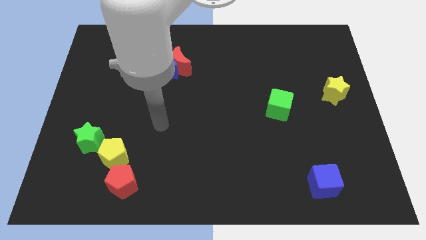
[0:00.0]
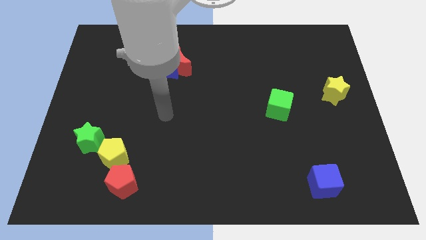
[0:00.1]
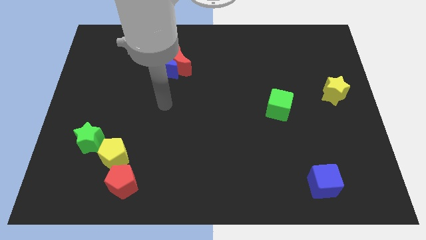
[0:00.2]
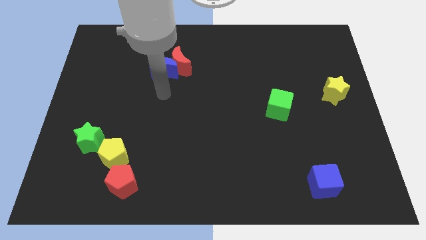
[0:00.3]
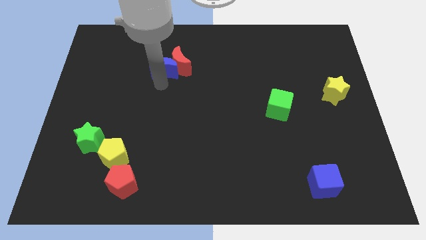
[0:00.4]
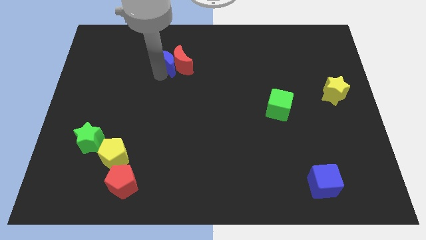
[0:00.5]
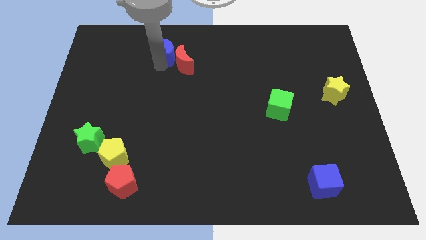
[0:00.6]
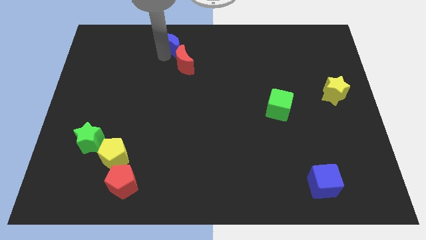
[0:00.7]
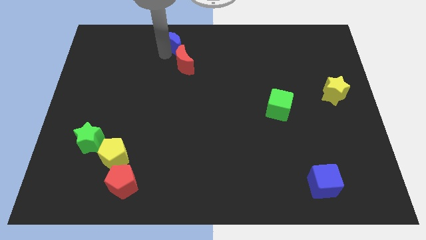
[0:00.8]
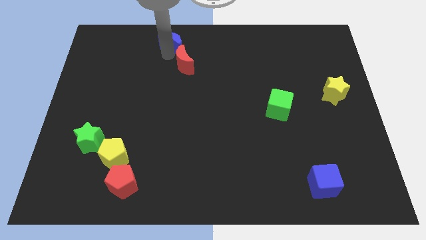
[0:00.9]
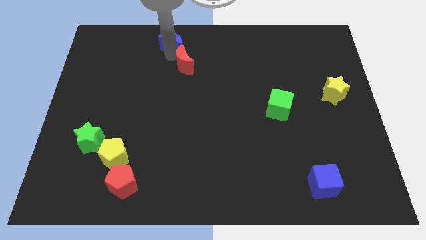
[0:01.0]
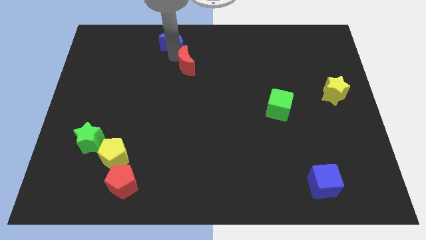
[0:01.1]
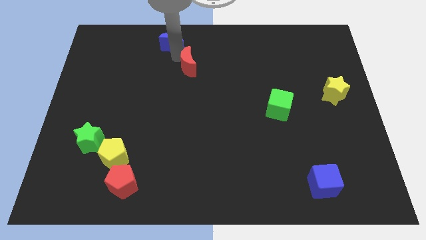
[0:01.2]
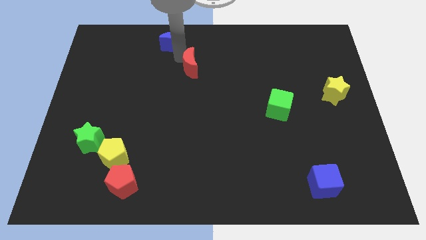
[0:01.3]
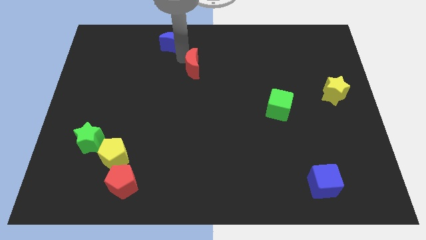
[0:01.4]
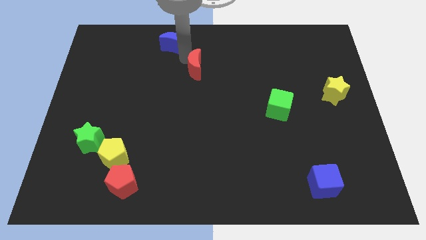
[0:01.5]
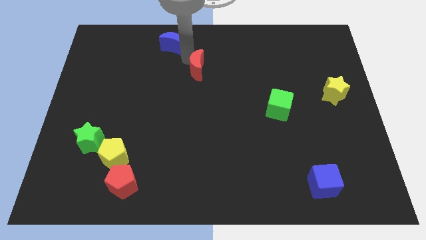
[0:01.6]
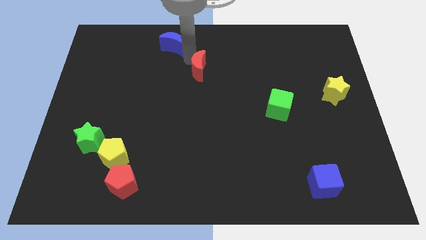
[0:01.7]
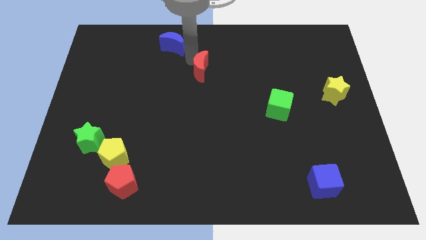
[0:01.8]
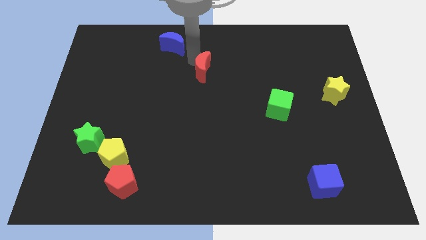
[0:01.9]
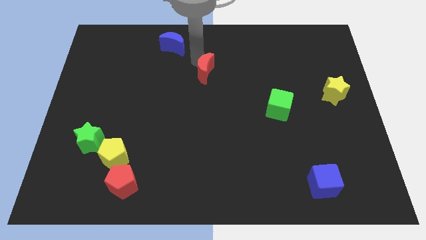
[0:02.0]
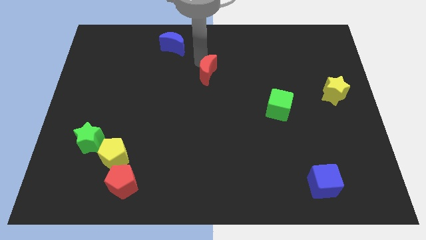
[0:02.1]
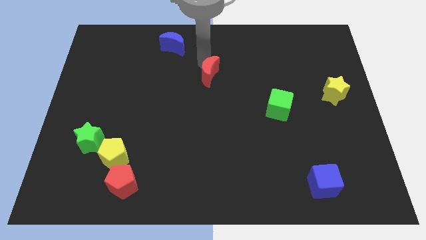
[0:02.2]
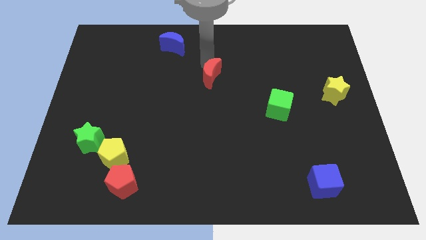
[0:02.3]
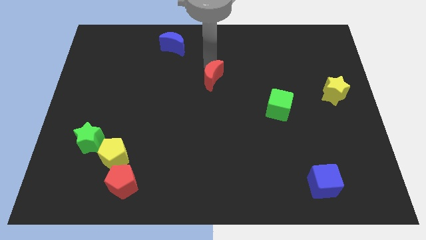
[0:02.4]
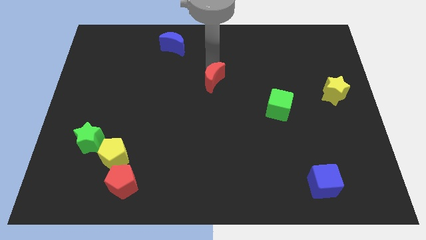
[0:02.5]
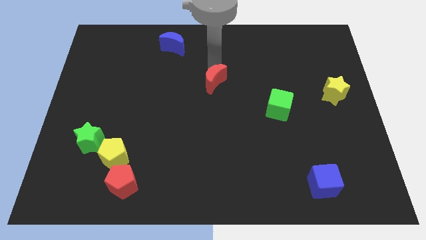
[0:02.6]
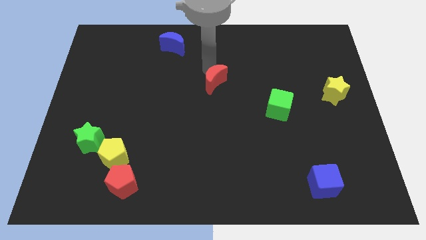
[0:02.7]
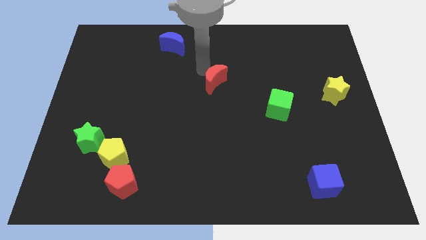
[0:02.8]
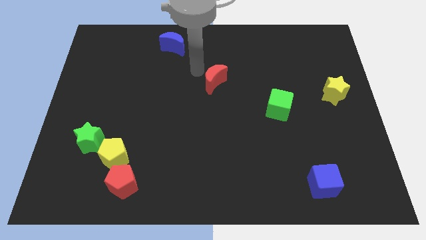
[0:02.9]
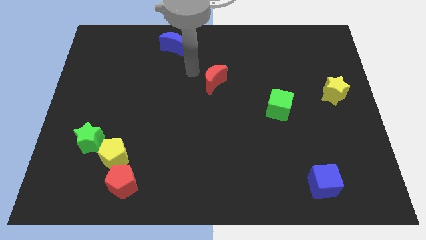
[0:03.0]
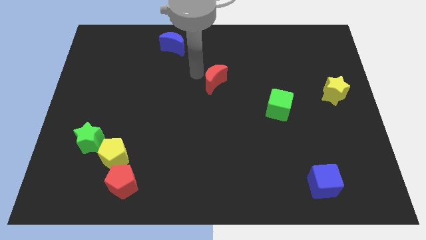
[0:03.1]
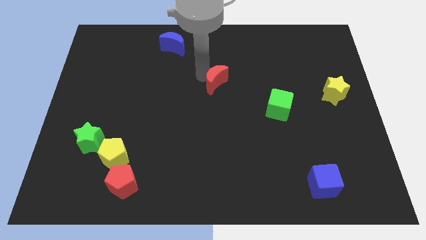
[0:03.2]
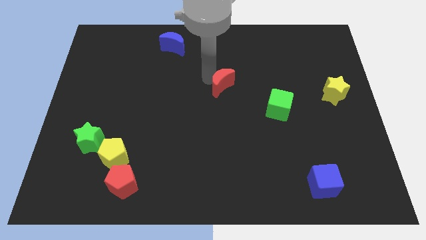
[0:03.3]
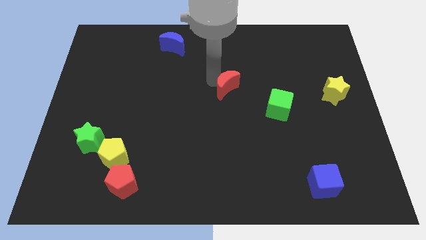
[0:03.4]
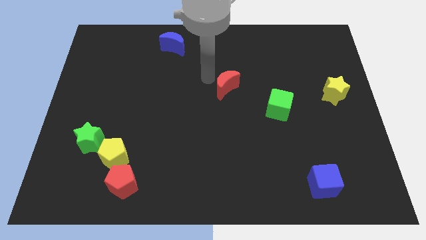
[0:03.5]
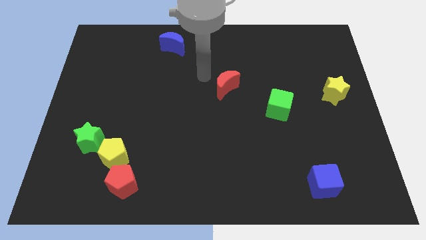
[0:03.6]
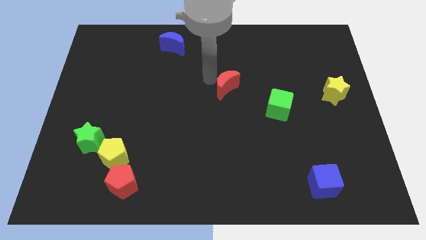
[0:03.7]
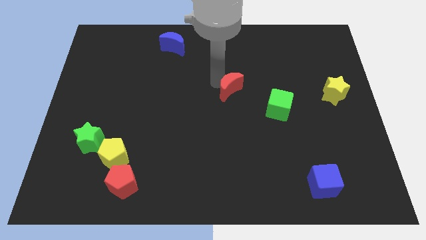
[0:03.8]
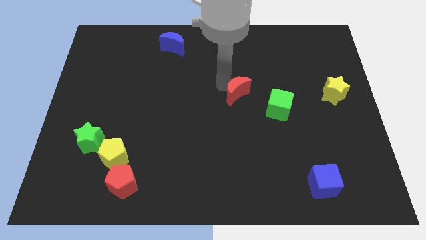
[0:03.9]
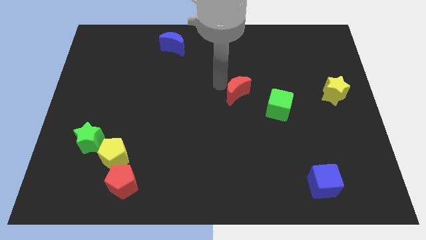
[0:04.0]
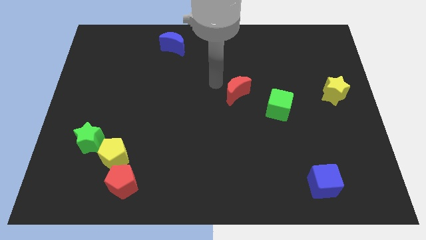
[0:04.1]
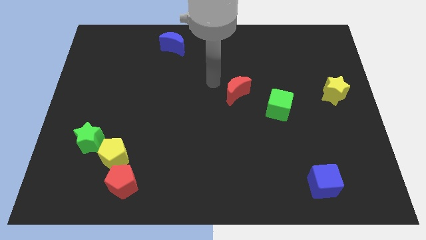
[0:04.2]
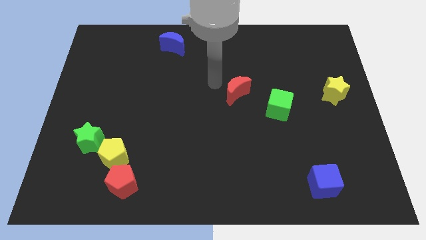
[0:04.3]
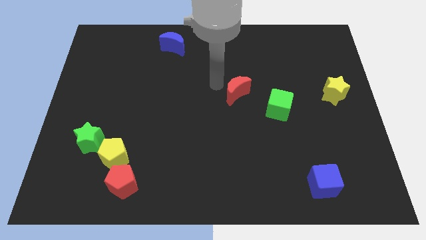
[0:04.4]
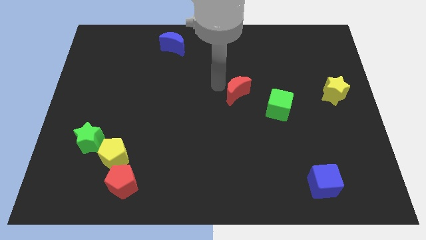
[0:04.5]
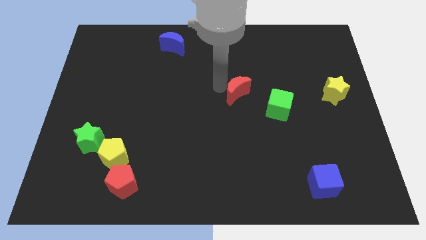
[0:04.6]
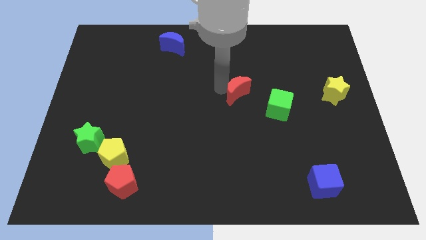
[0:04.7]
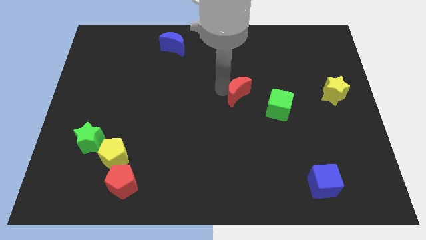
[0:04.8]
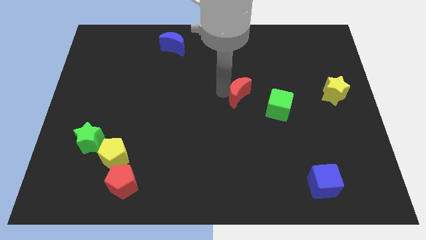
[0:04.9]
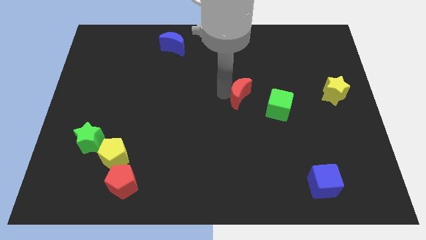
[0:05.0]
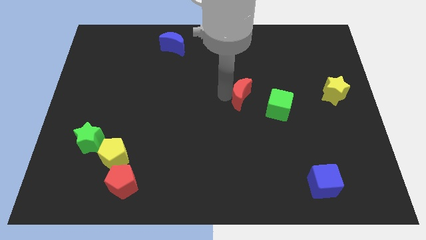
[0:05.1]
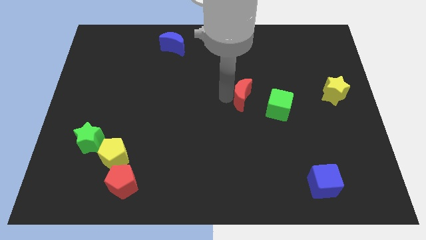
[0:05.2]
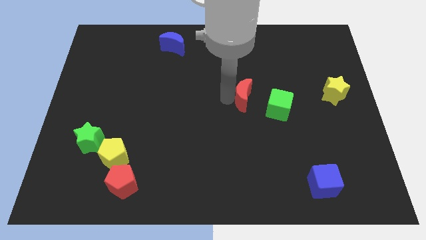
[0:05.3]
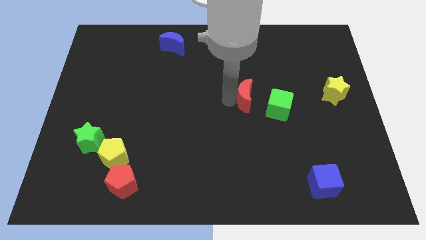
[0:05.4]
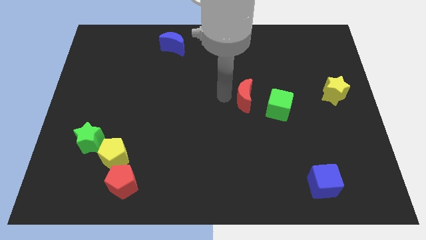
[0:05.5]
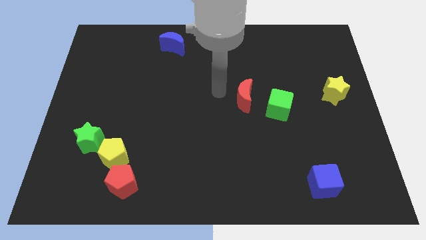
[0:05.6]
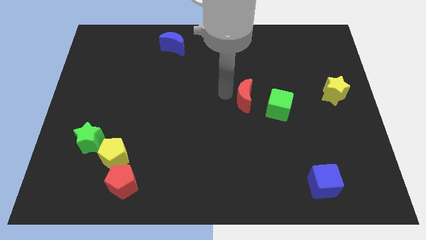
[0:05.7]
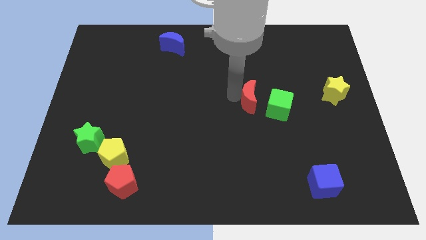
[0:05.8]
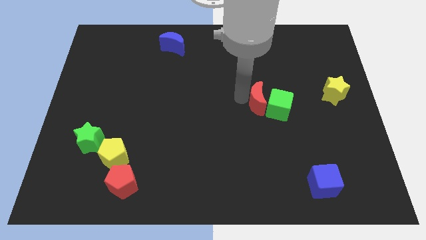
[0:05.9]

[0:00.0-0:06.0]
put the red moon towards the green cube
